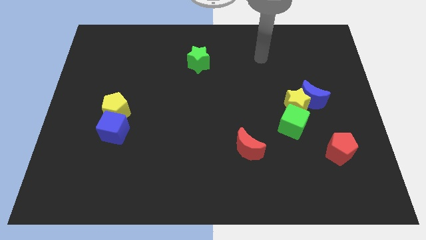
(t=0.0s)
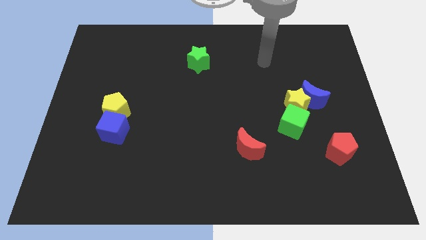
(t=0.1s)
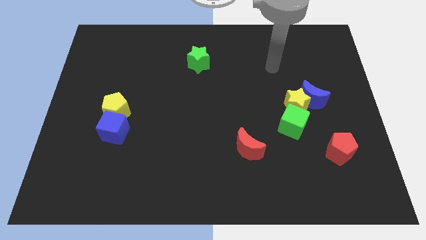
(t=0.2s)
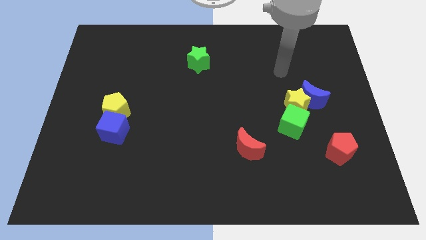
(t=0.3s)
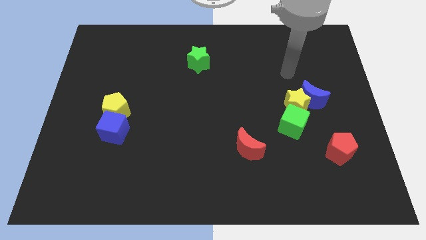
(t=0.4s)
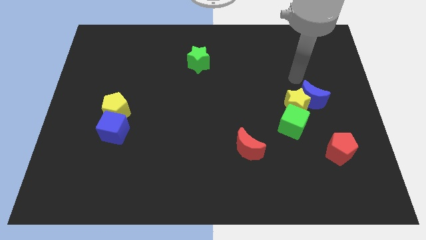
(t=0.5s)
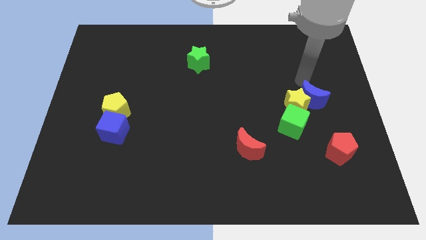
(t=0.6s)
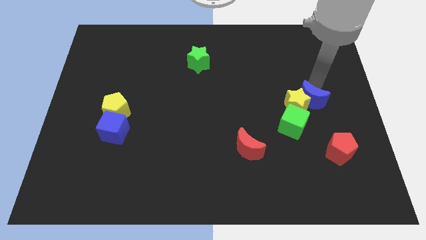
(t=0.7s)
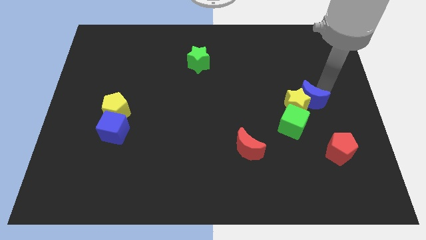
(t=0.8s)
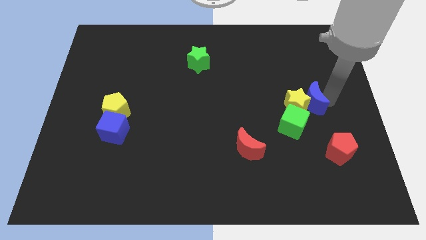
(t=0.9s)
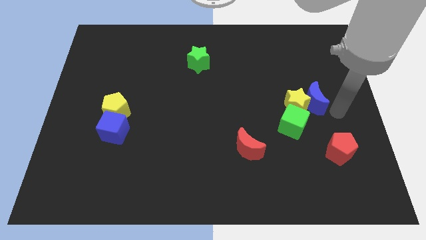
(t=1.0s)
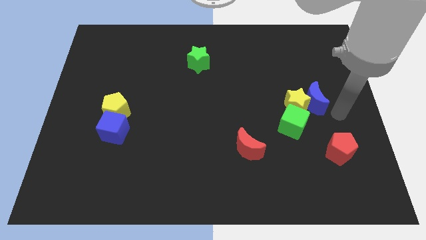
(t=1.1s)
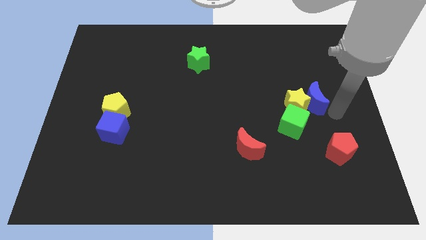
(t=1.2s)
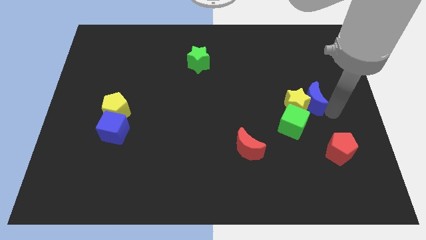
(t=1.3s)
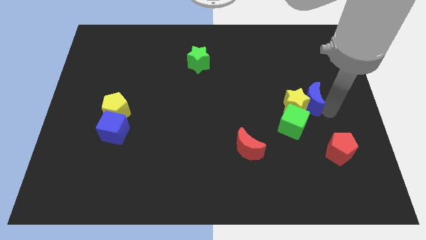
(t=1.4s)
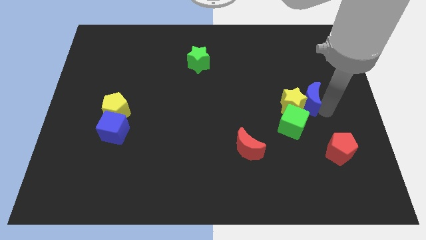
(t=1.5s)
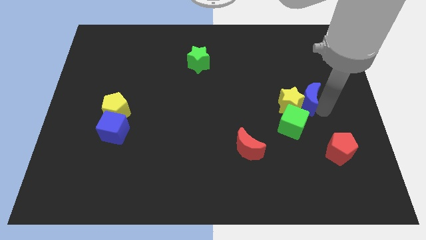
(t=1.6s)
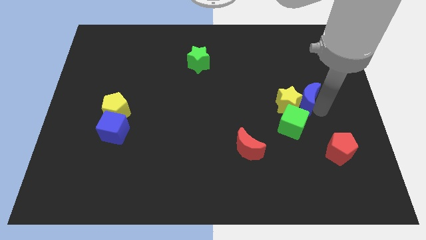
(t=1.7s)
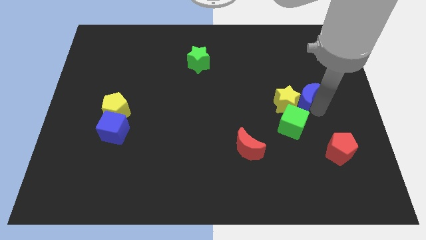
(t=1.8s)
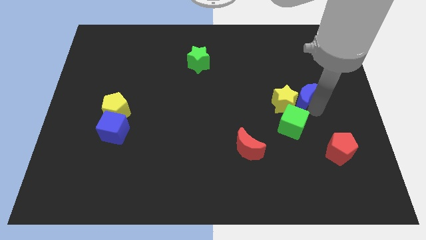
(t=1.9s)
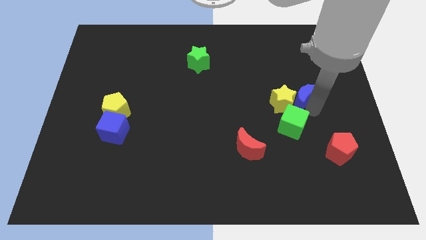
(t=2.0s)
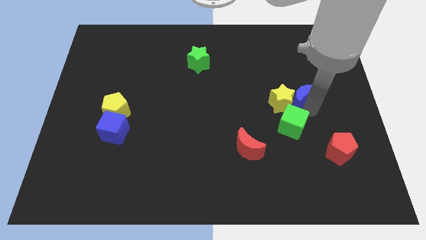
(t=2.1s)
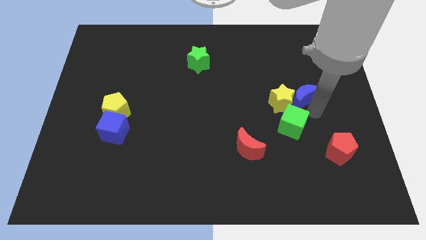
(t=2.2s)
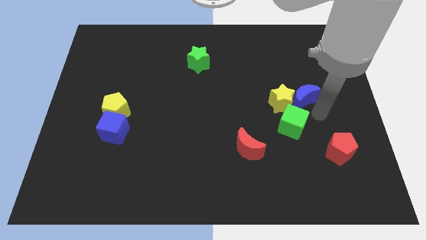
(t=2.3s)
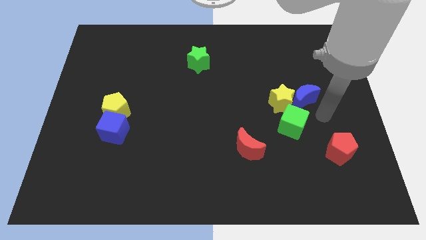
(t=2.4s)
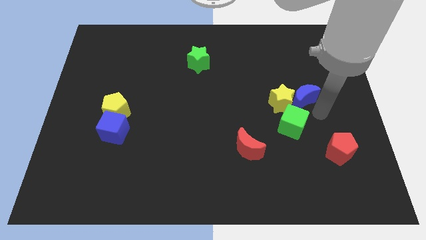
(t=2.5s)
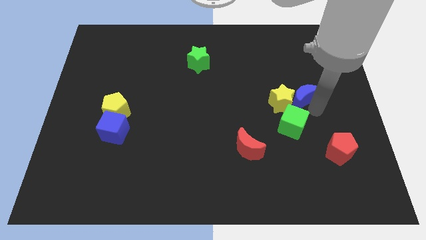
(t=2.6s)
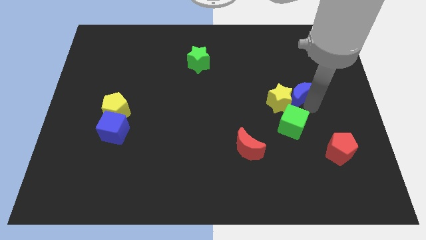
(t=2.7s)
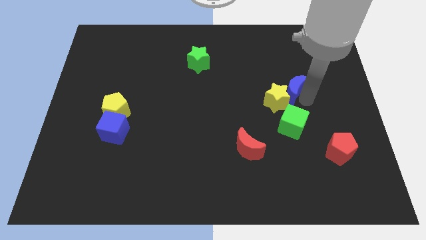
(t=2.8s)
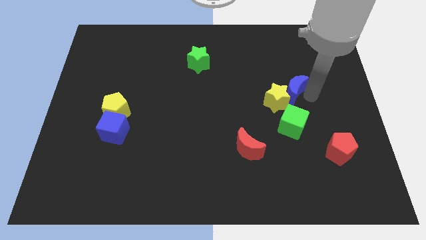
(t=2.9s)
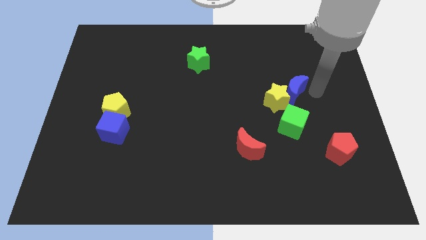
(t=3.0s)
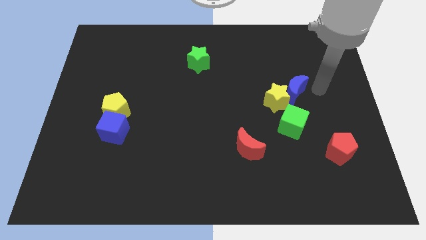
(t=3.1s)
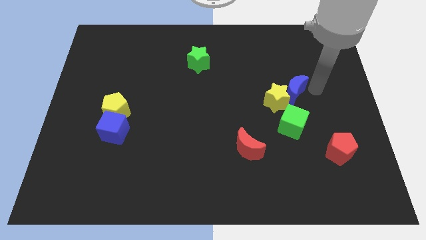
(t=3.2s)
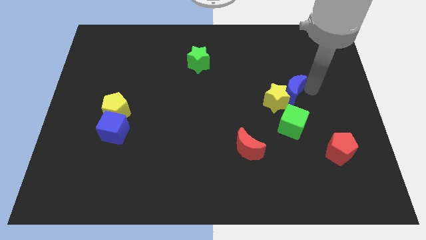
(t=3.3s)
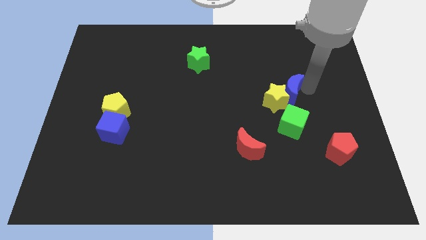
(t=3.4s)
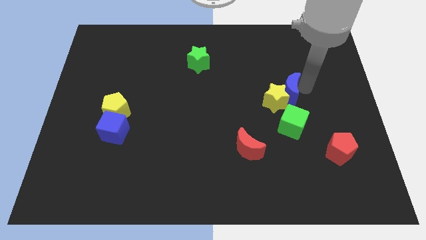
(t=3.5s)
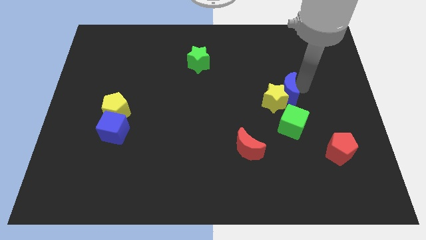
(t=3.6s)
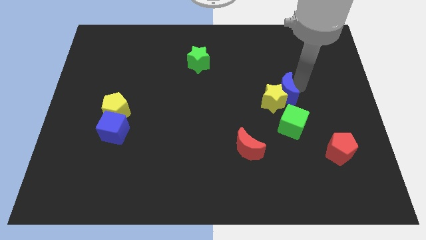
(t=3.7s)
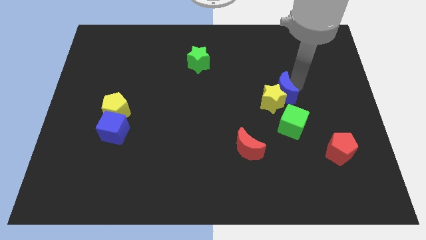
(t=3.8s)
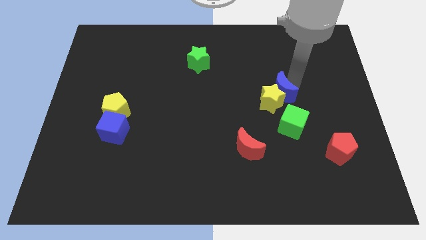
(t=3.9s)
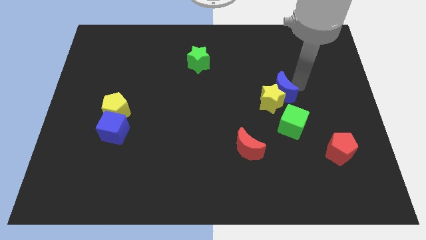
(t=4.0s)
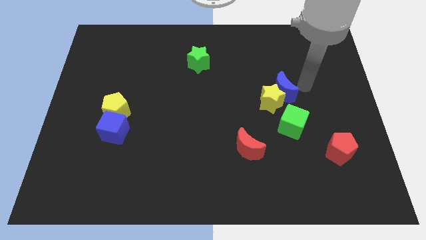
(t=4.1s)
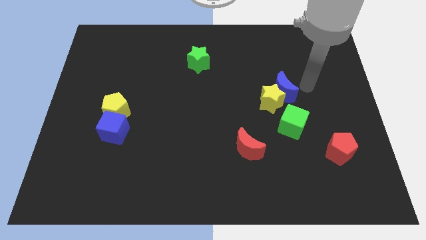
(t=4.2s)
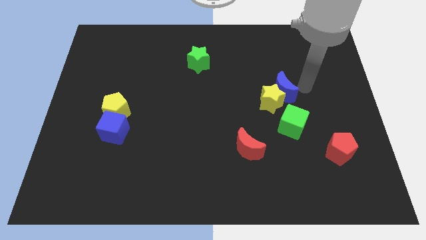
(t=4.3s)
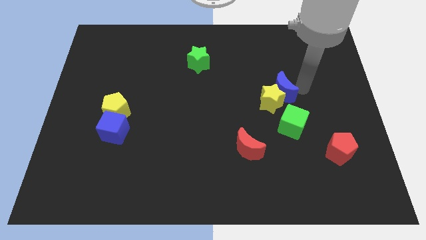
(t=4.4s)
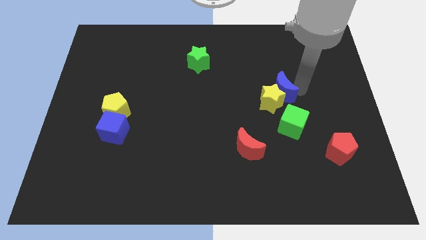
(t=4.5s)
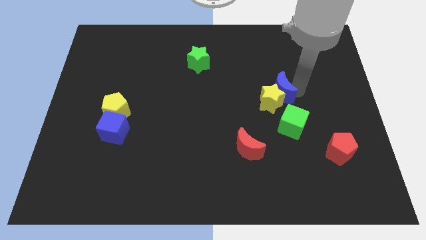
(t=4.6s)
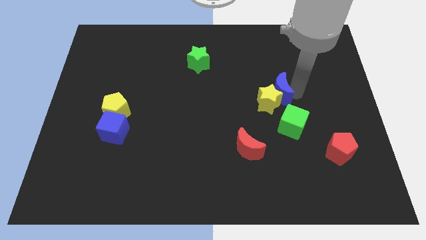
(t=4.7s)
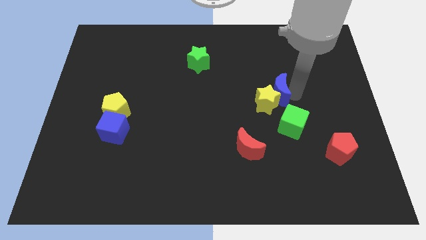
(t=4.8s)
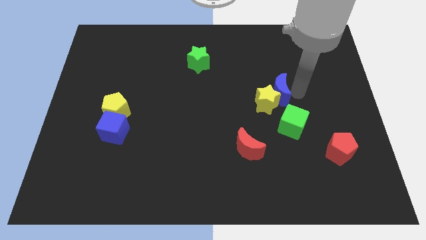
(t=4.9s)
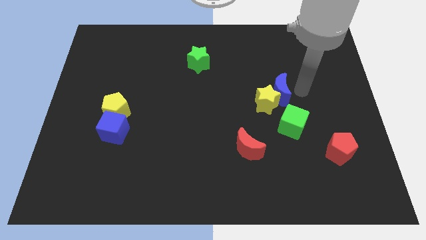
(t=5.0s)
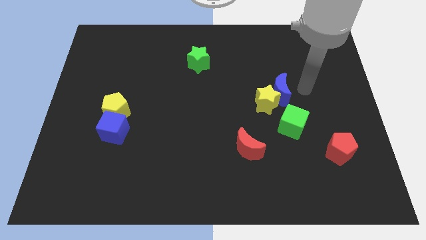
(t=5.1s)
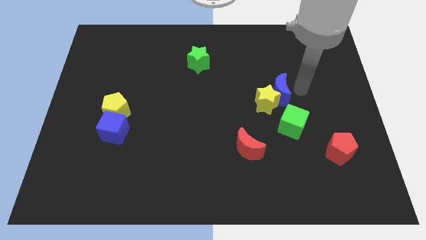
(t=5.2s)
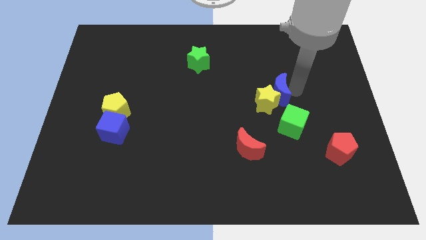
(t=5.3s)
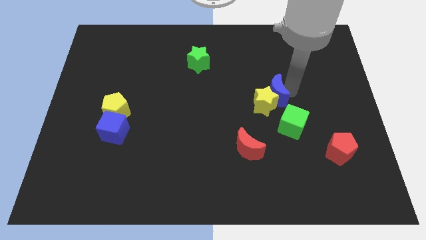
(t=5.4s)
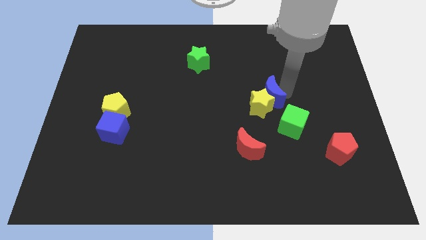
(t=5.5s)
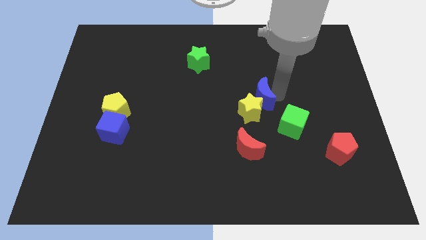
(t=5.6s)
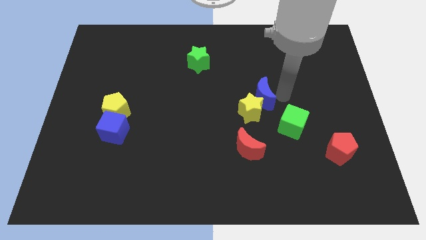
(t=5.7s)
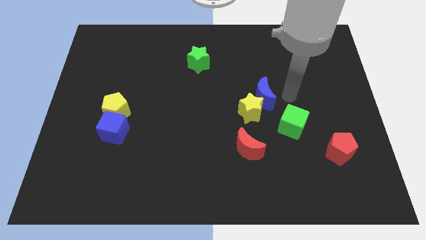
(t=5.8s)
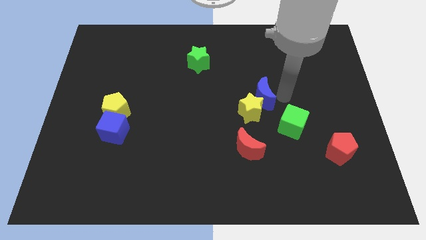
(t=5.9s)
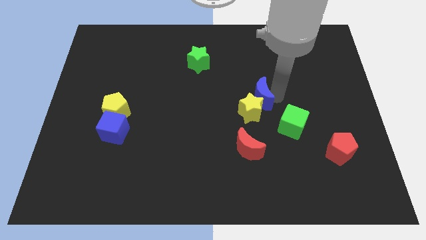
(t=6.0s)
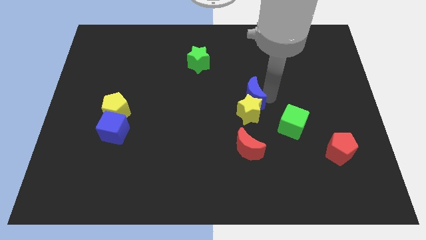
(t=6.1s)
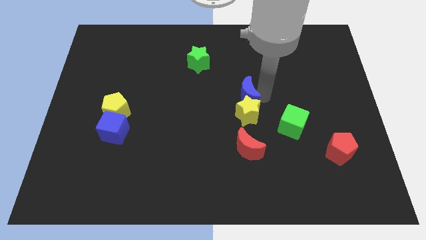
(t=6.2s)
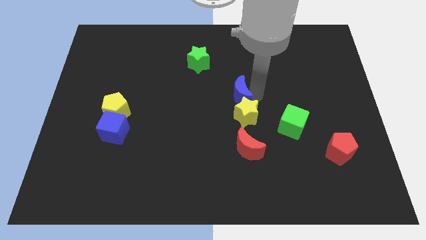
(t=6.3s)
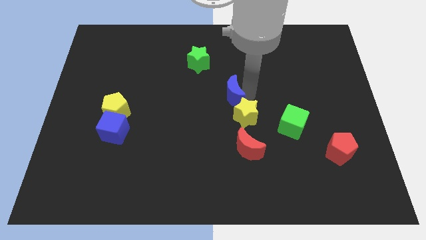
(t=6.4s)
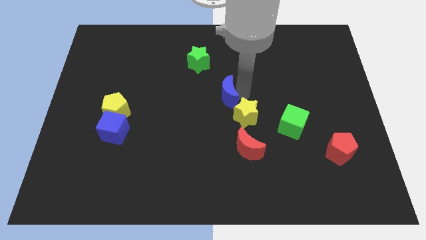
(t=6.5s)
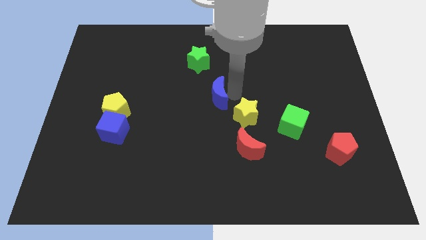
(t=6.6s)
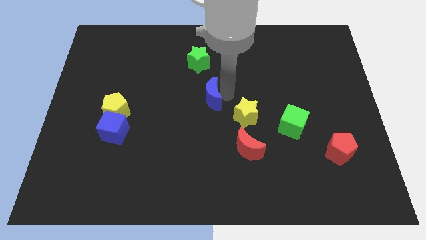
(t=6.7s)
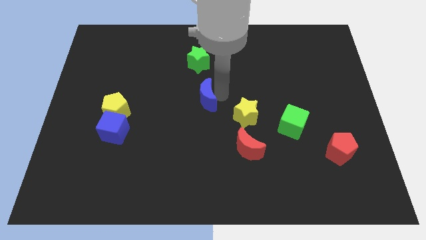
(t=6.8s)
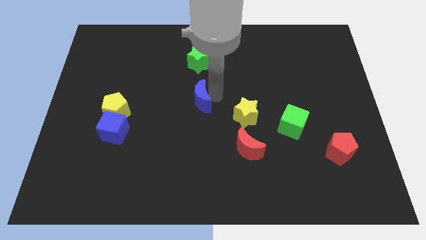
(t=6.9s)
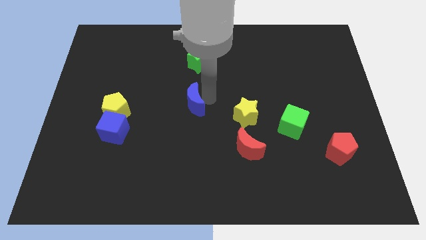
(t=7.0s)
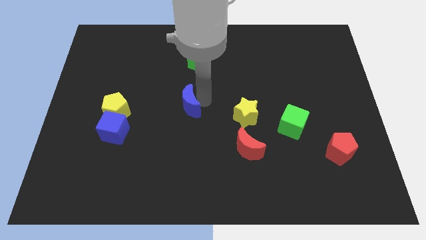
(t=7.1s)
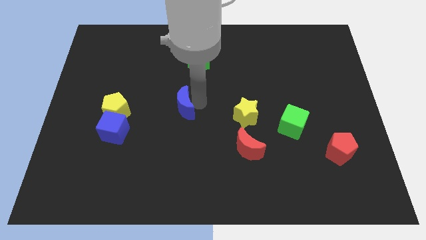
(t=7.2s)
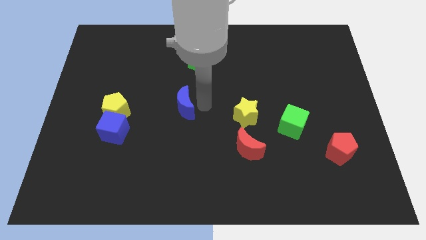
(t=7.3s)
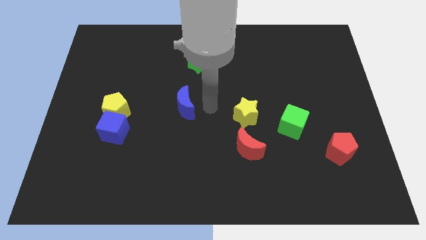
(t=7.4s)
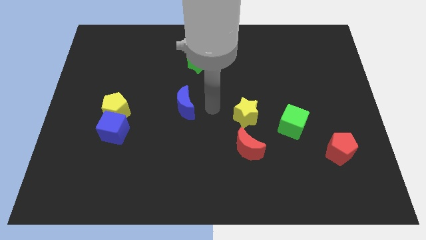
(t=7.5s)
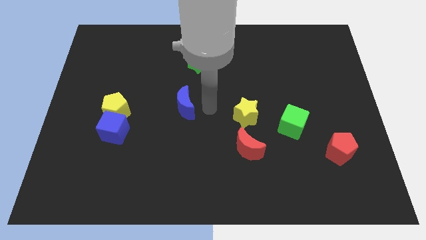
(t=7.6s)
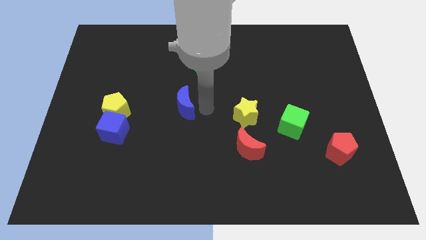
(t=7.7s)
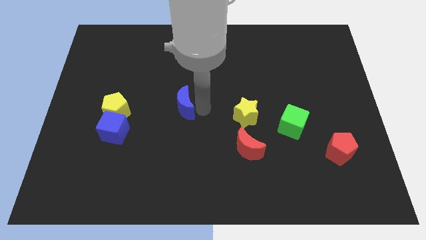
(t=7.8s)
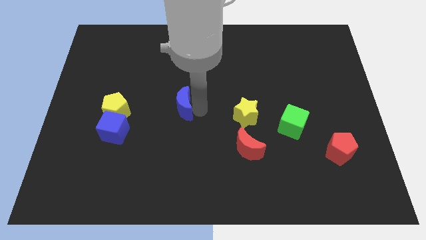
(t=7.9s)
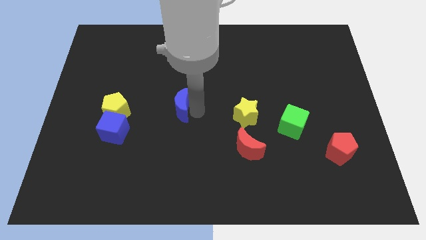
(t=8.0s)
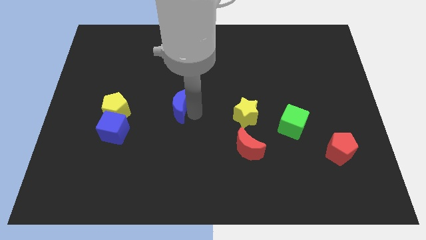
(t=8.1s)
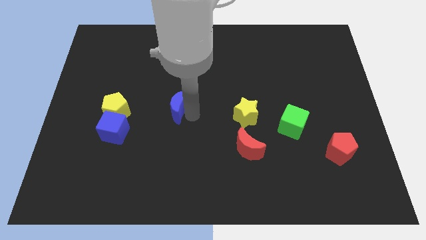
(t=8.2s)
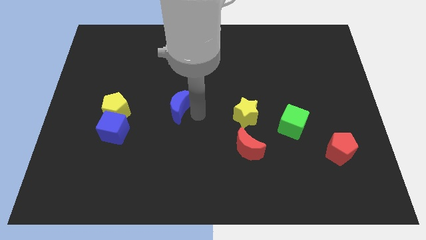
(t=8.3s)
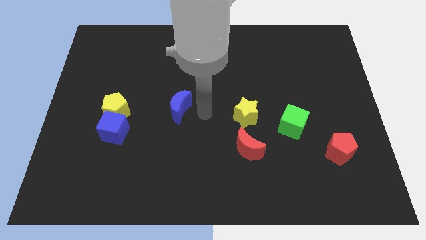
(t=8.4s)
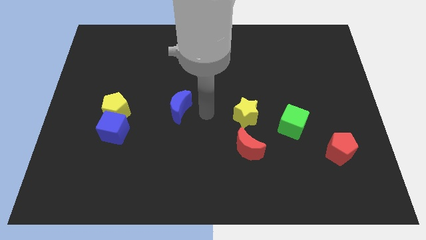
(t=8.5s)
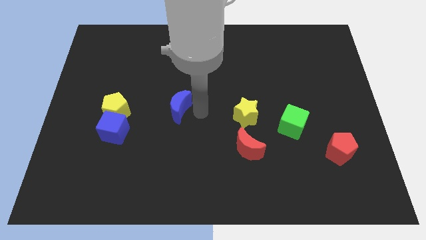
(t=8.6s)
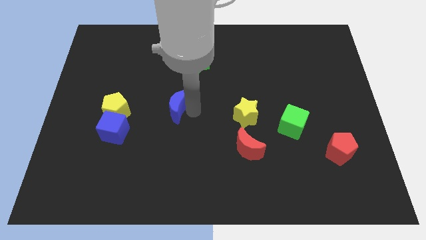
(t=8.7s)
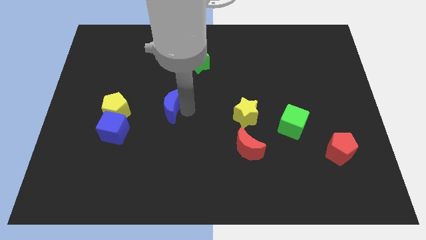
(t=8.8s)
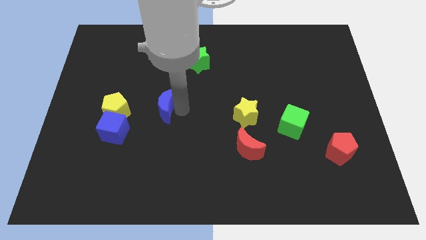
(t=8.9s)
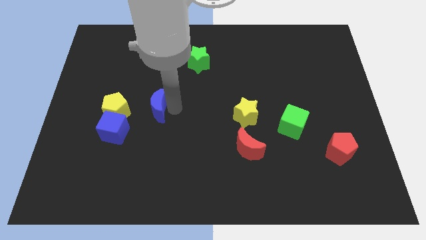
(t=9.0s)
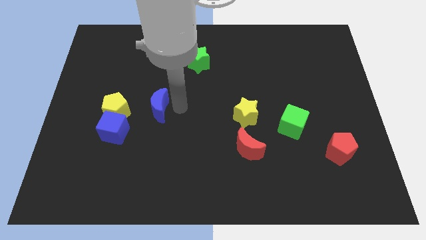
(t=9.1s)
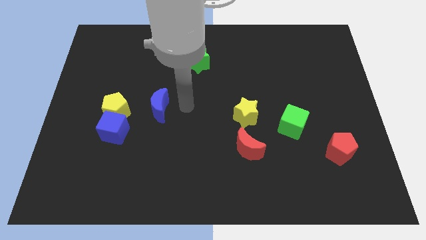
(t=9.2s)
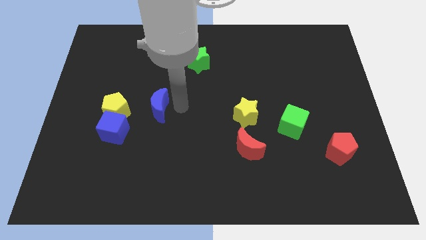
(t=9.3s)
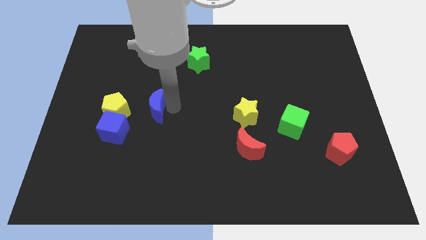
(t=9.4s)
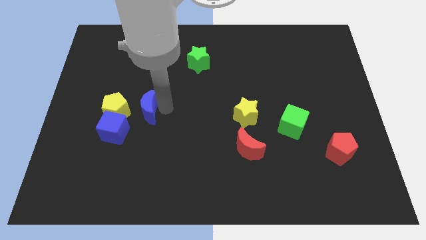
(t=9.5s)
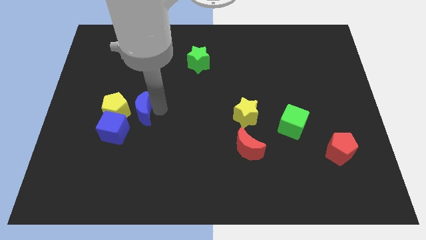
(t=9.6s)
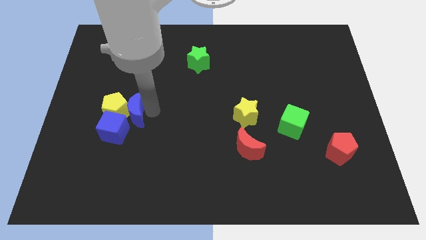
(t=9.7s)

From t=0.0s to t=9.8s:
push the blue moon towards the yellow pentagon
